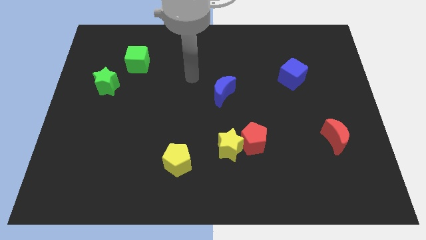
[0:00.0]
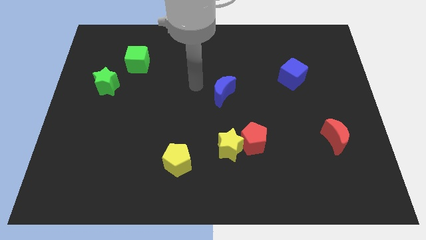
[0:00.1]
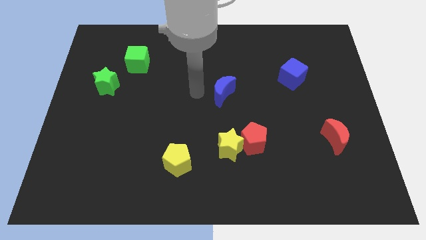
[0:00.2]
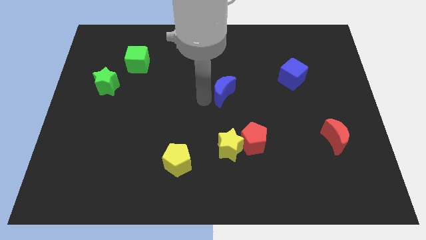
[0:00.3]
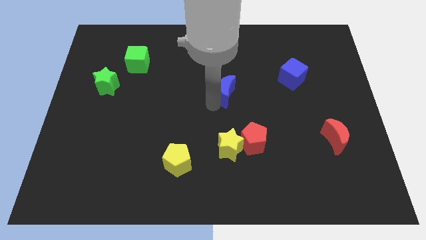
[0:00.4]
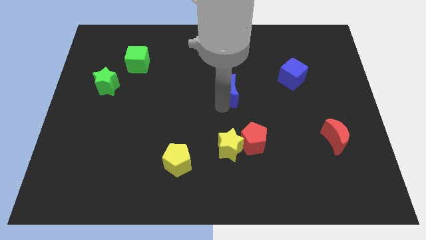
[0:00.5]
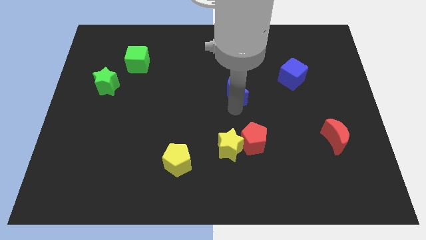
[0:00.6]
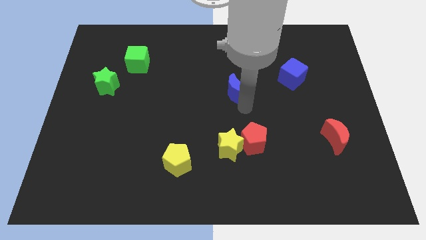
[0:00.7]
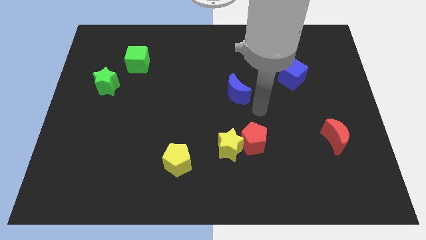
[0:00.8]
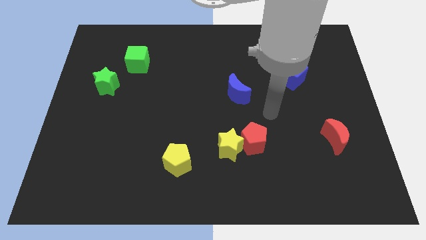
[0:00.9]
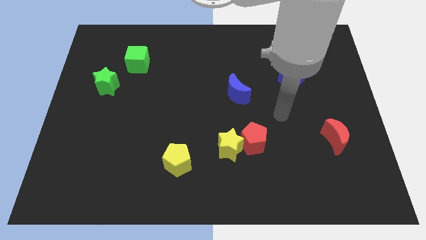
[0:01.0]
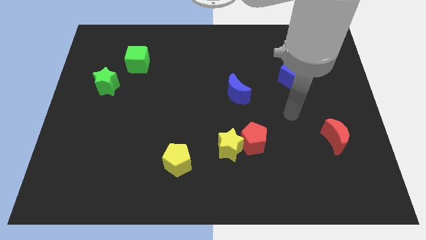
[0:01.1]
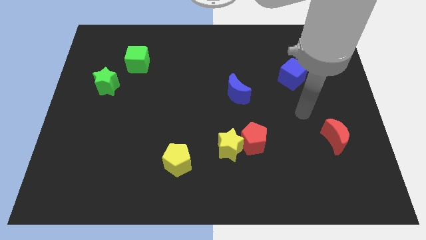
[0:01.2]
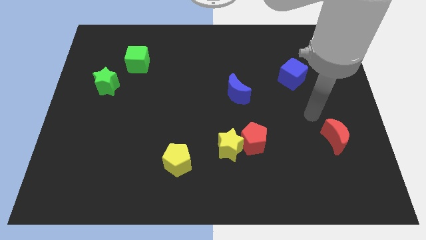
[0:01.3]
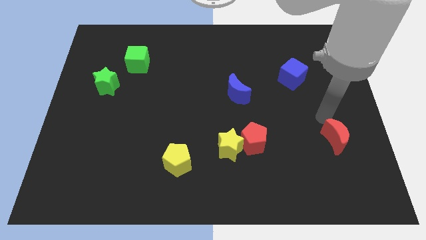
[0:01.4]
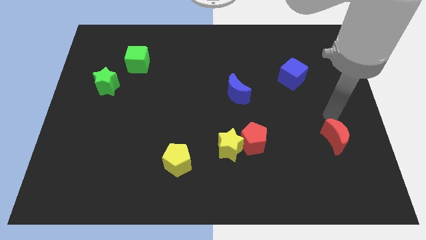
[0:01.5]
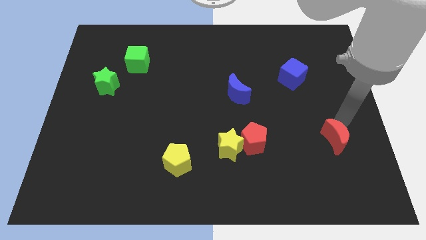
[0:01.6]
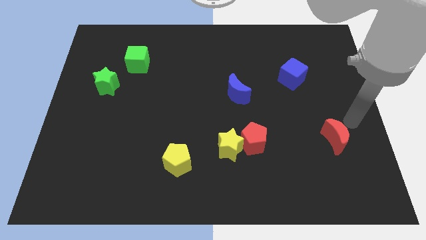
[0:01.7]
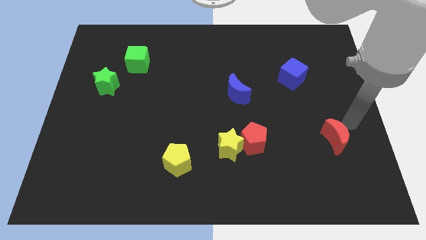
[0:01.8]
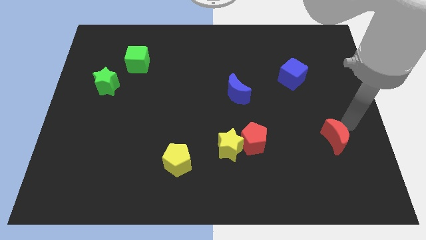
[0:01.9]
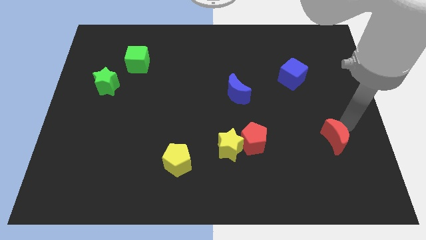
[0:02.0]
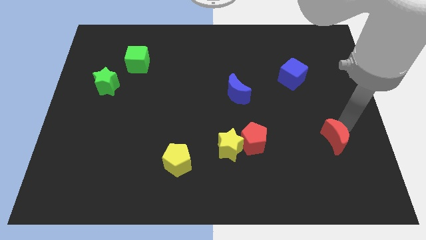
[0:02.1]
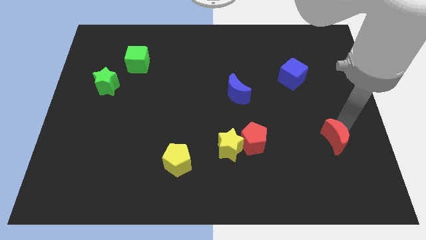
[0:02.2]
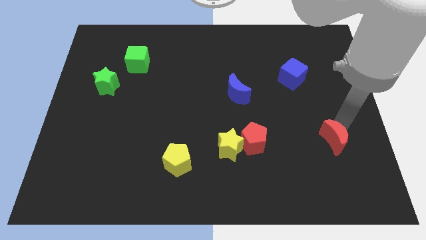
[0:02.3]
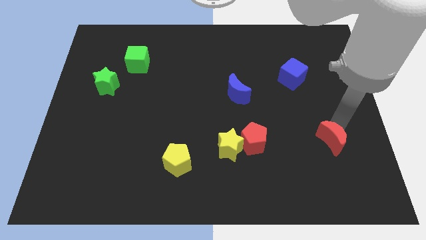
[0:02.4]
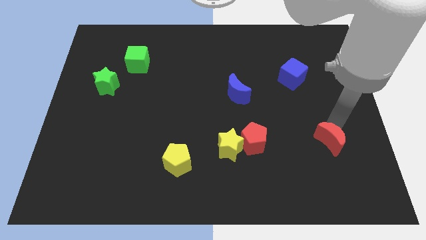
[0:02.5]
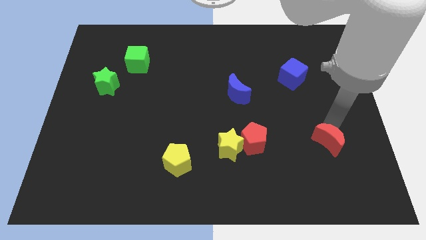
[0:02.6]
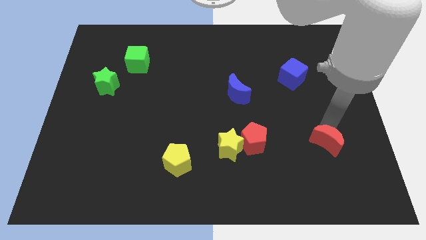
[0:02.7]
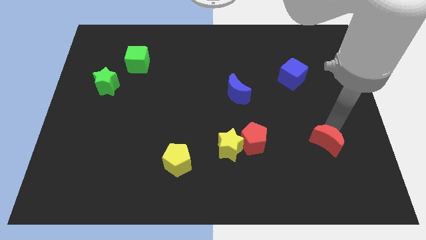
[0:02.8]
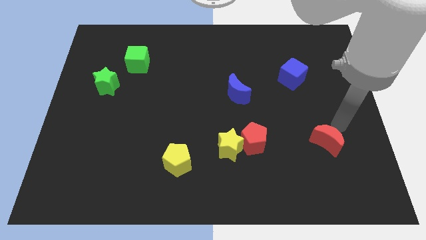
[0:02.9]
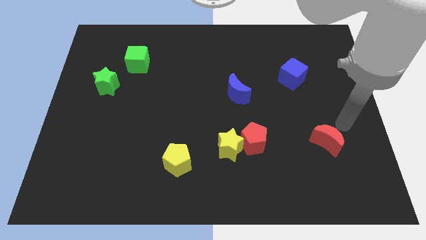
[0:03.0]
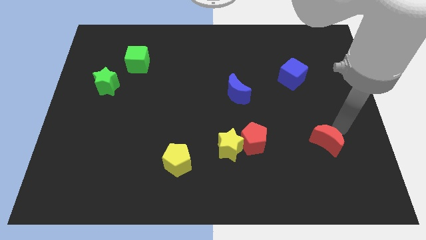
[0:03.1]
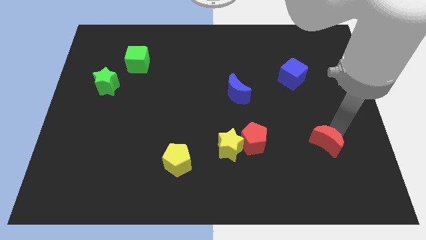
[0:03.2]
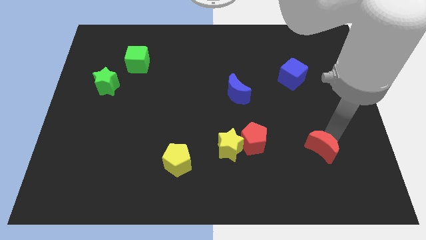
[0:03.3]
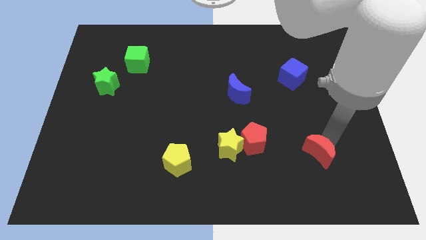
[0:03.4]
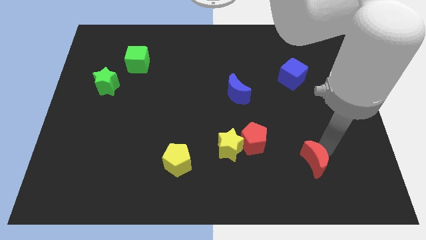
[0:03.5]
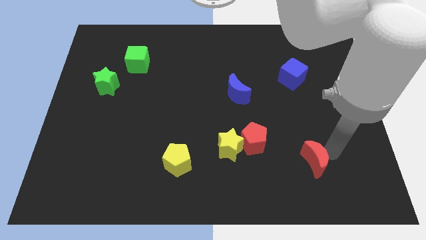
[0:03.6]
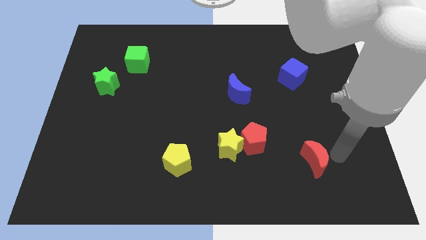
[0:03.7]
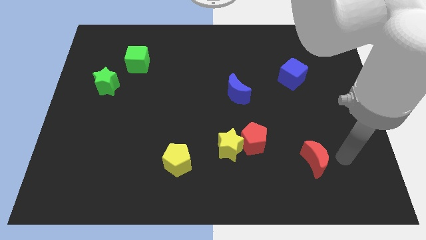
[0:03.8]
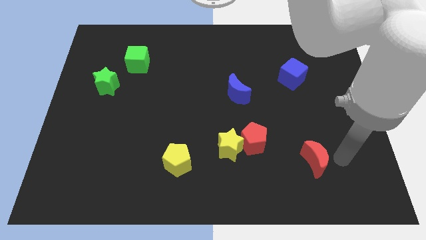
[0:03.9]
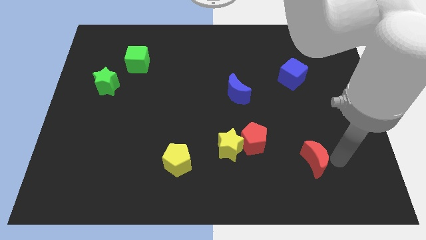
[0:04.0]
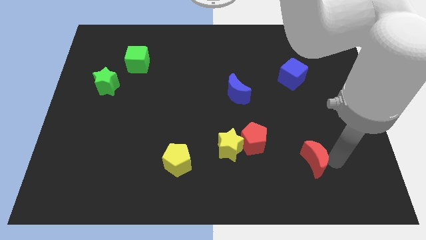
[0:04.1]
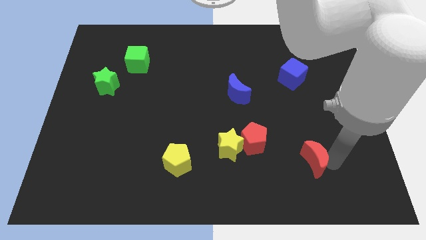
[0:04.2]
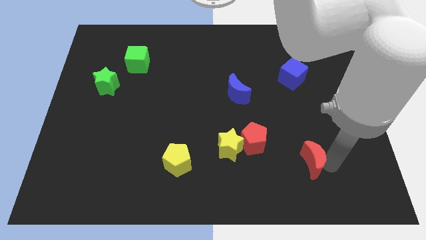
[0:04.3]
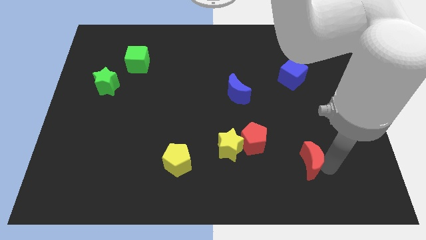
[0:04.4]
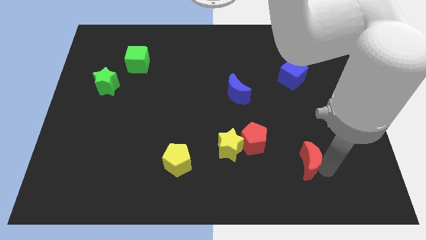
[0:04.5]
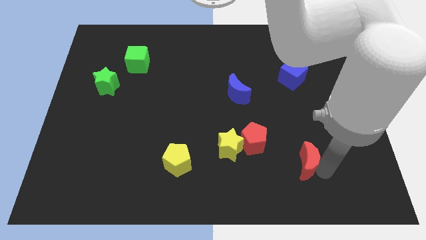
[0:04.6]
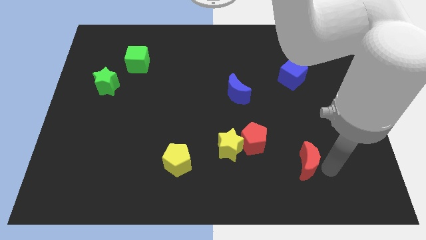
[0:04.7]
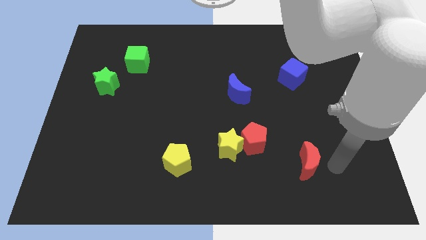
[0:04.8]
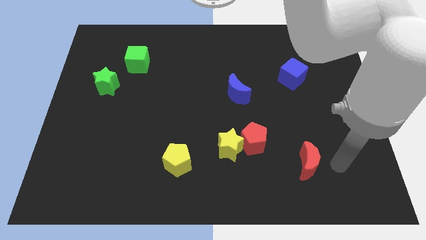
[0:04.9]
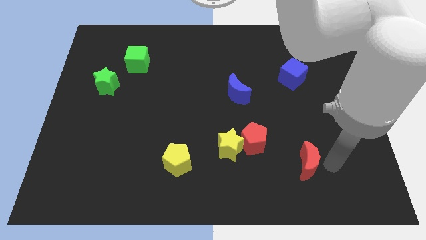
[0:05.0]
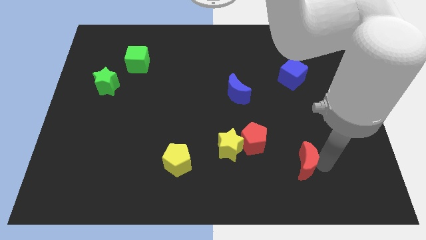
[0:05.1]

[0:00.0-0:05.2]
put the red moon to the bottom right of the red pentagon

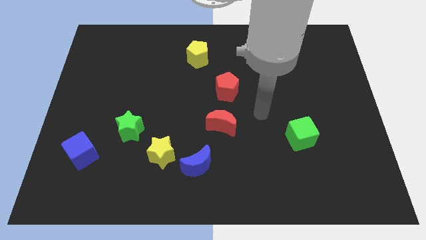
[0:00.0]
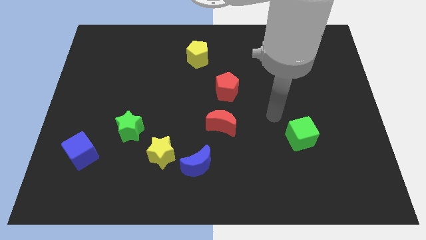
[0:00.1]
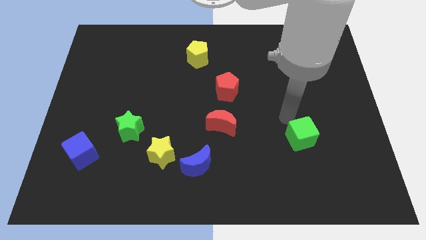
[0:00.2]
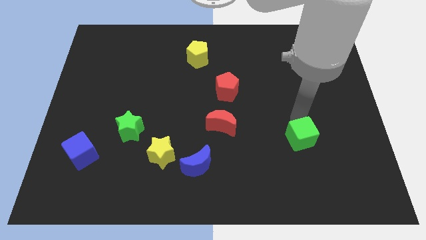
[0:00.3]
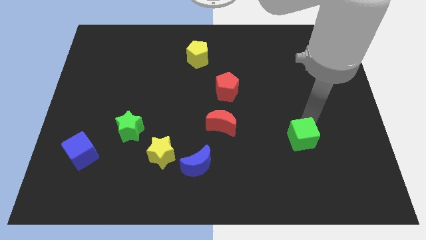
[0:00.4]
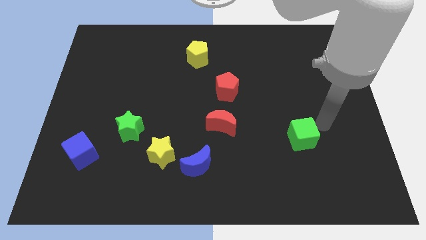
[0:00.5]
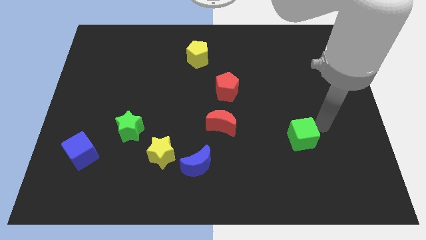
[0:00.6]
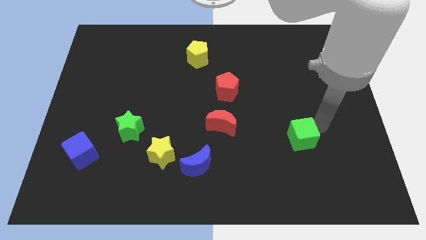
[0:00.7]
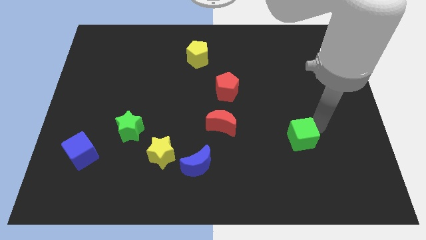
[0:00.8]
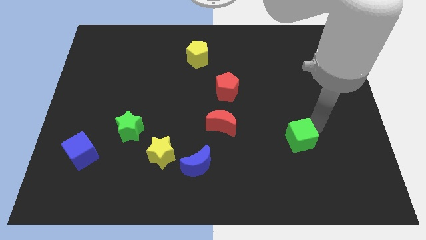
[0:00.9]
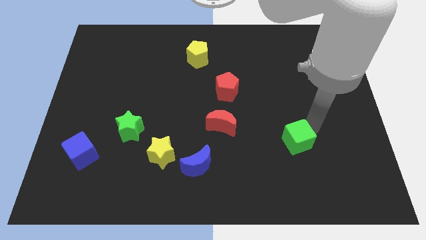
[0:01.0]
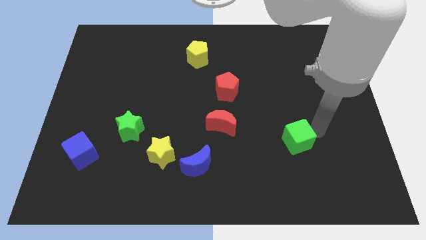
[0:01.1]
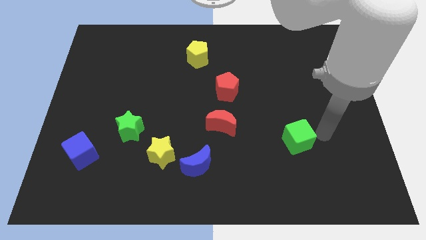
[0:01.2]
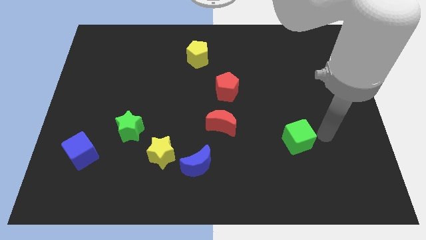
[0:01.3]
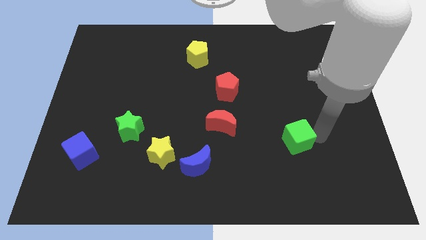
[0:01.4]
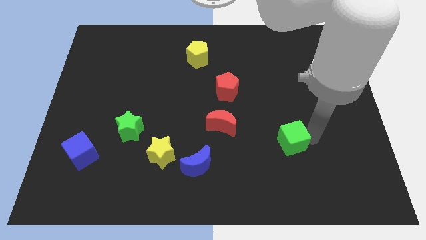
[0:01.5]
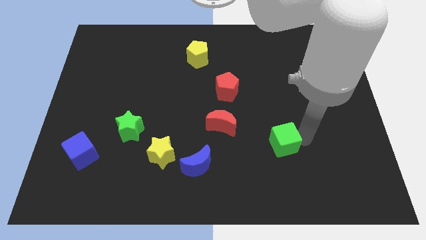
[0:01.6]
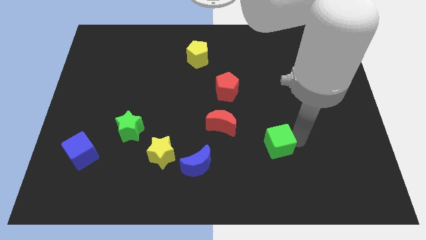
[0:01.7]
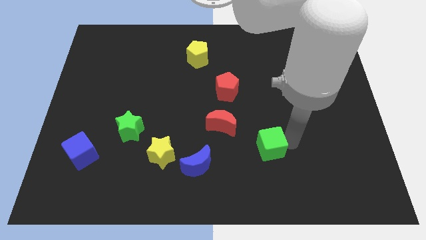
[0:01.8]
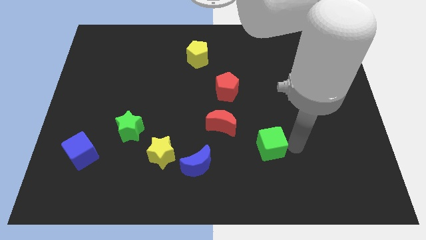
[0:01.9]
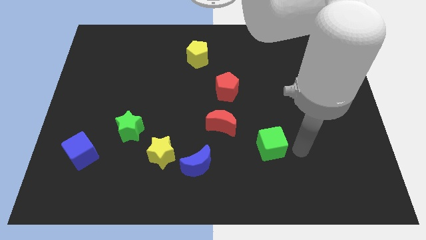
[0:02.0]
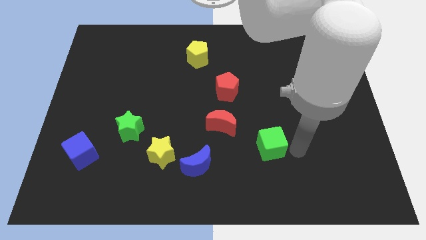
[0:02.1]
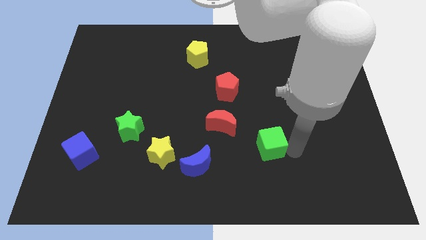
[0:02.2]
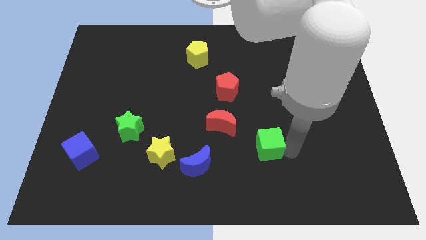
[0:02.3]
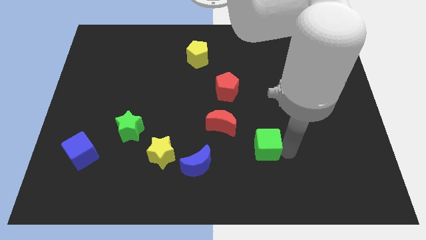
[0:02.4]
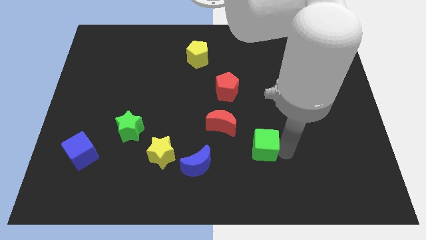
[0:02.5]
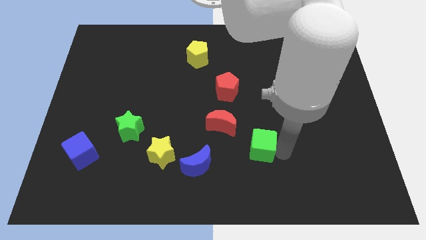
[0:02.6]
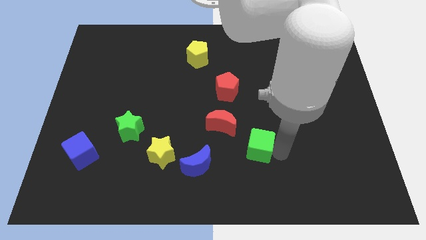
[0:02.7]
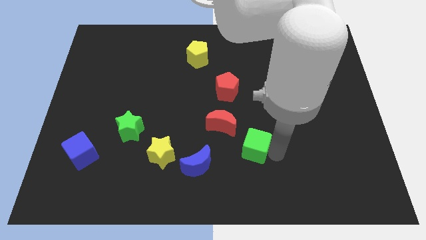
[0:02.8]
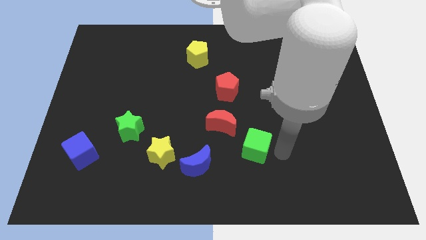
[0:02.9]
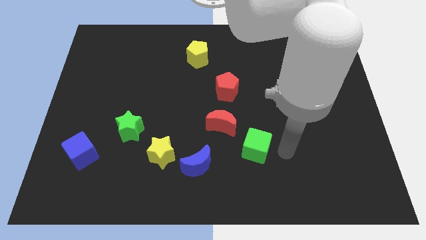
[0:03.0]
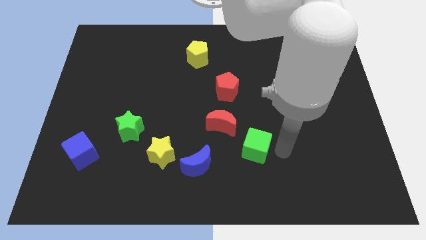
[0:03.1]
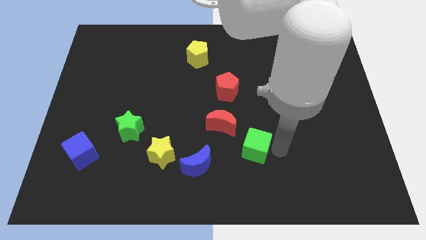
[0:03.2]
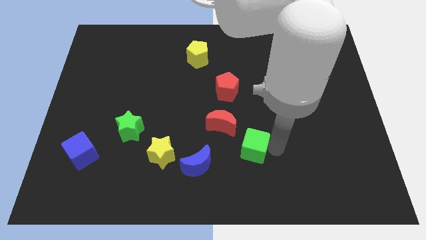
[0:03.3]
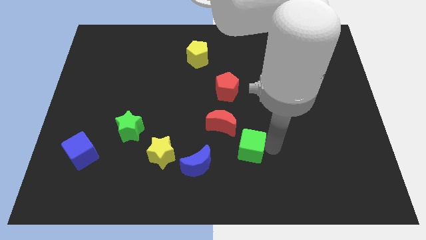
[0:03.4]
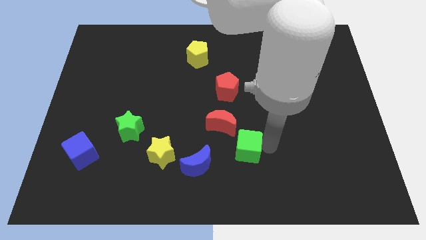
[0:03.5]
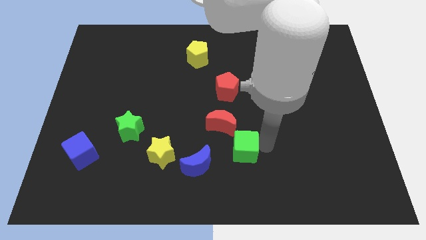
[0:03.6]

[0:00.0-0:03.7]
push the green cube to the top right side of the blue moon
